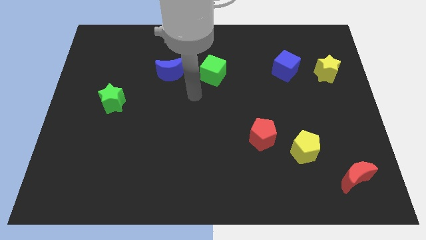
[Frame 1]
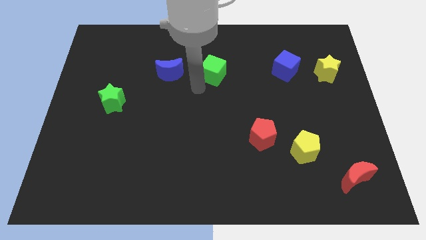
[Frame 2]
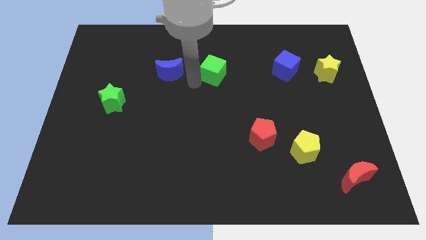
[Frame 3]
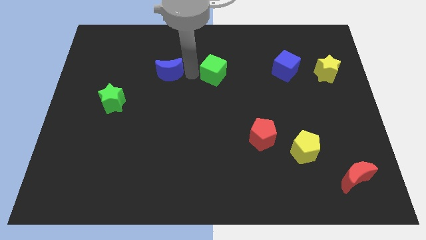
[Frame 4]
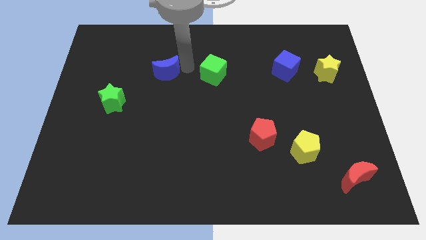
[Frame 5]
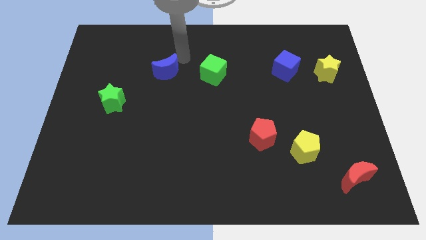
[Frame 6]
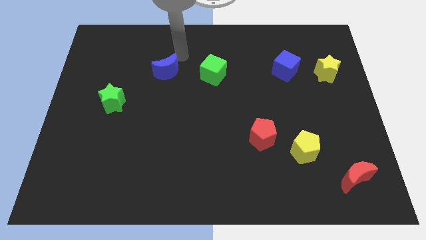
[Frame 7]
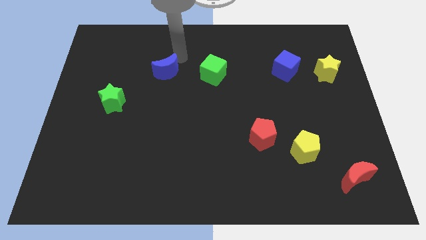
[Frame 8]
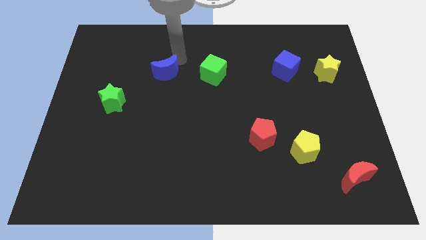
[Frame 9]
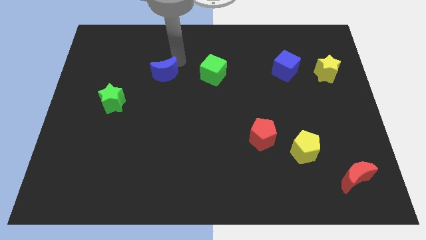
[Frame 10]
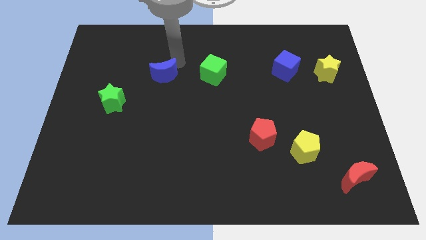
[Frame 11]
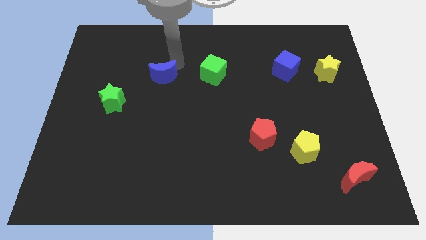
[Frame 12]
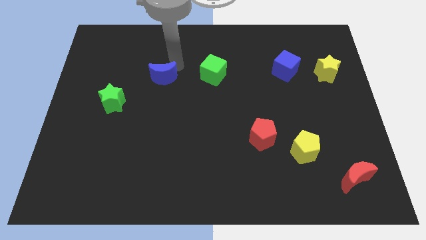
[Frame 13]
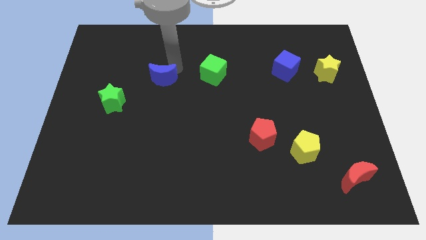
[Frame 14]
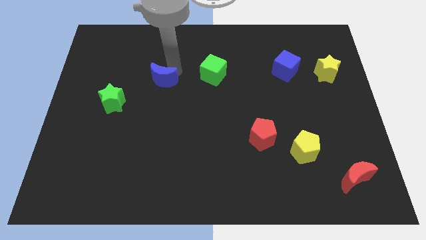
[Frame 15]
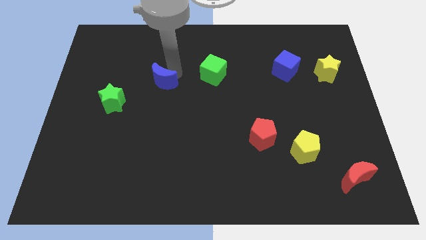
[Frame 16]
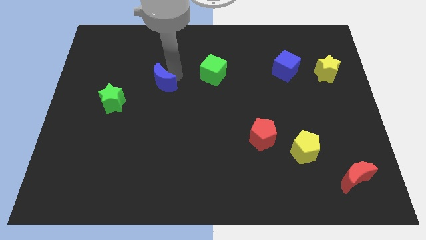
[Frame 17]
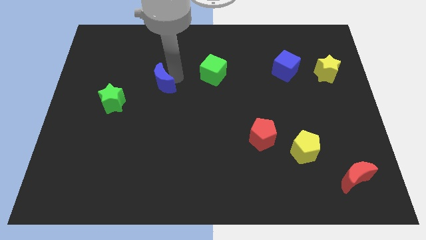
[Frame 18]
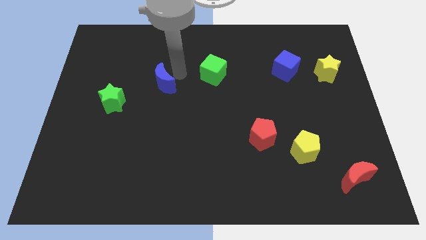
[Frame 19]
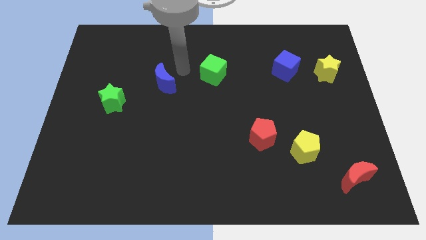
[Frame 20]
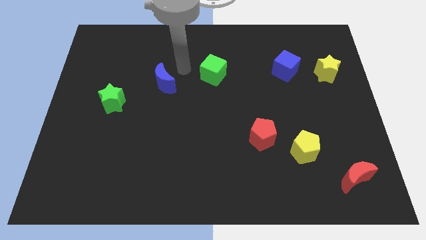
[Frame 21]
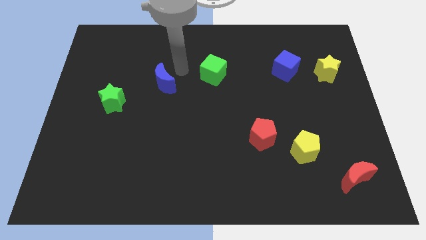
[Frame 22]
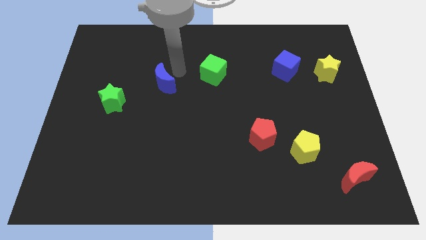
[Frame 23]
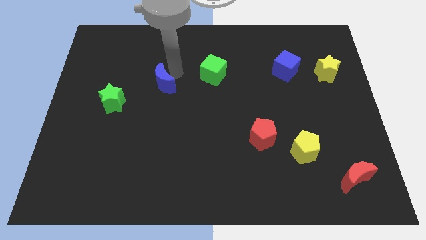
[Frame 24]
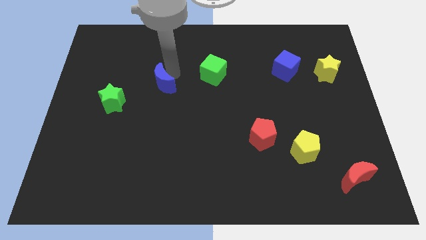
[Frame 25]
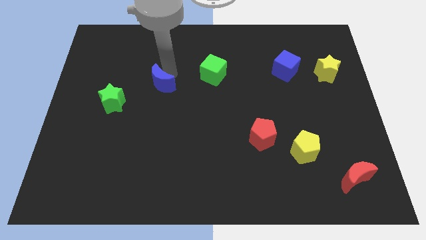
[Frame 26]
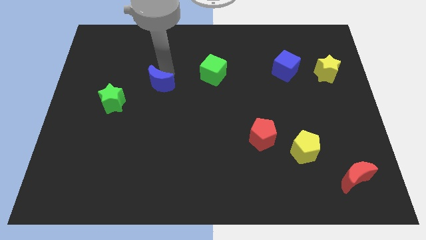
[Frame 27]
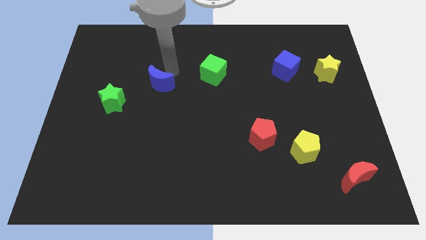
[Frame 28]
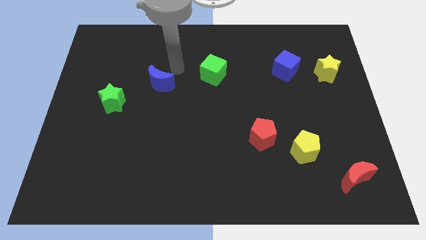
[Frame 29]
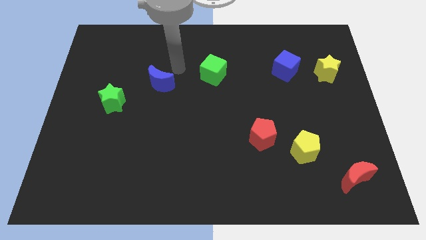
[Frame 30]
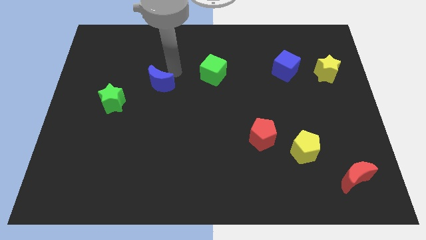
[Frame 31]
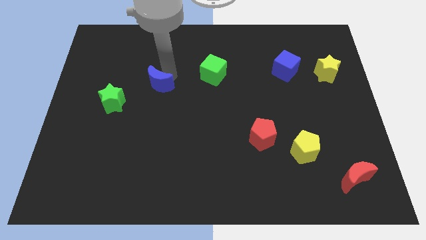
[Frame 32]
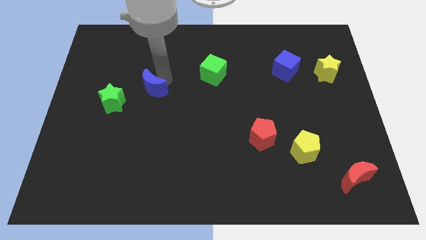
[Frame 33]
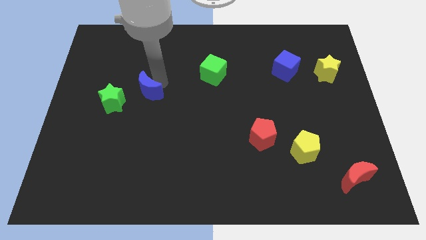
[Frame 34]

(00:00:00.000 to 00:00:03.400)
slightly move the blue moon down and to the left

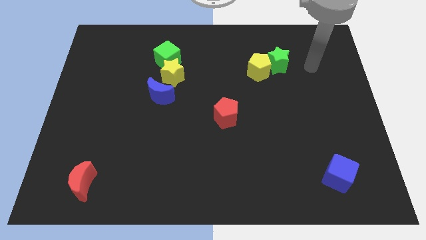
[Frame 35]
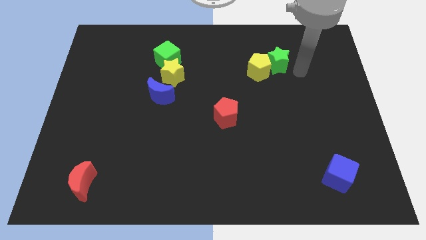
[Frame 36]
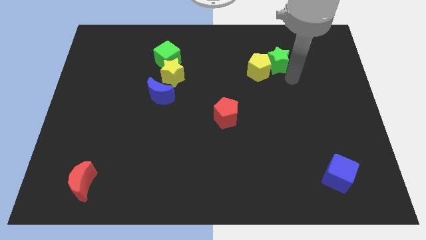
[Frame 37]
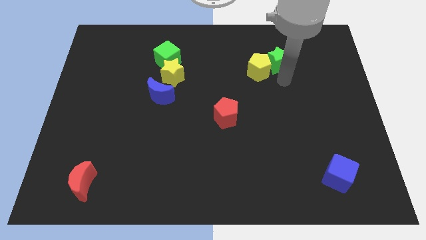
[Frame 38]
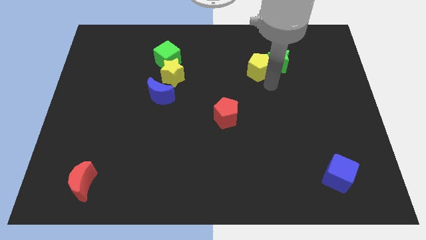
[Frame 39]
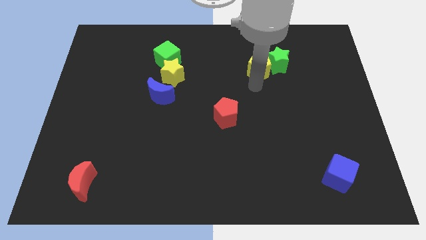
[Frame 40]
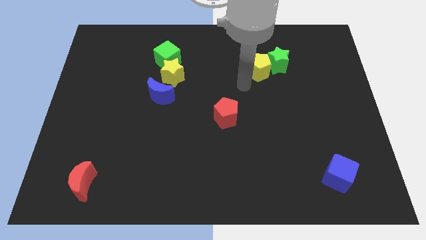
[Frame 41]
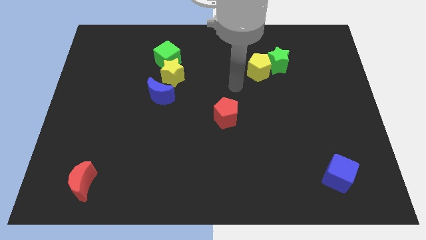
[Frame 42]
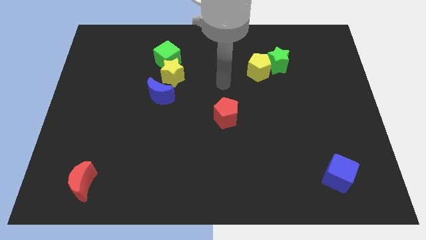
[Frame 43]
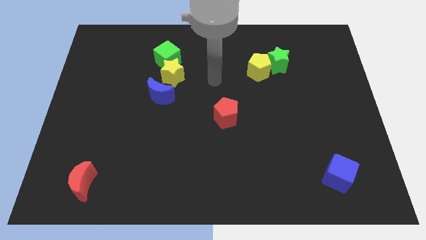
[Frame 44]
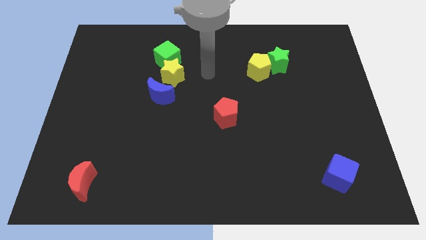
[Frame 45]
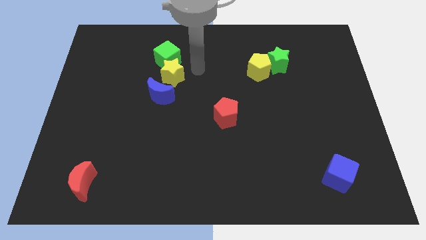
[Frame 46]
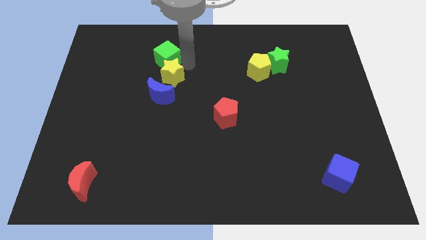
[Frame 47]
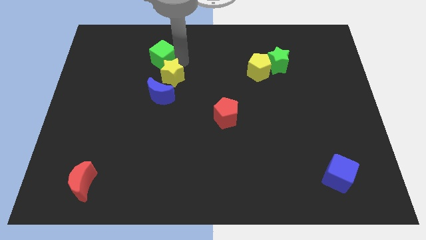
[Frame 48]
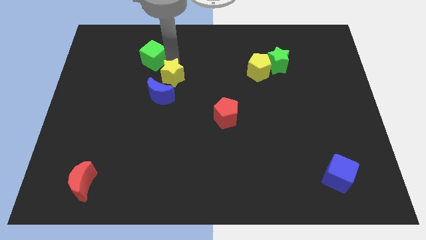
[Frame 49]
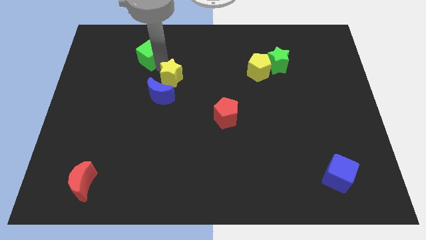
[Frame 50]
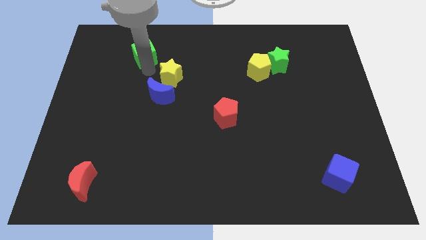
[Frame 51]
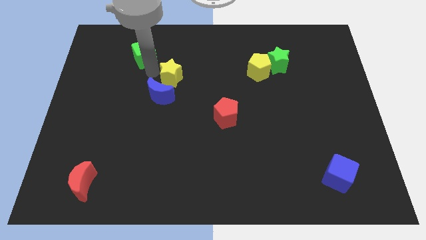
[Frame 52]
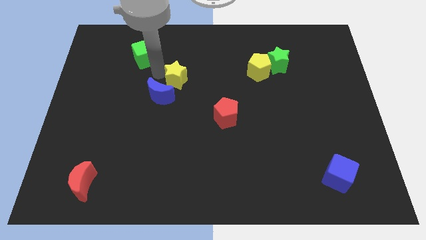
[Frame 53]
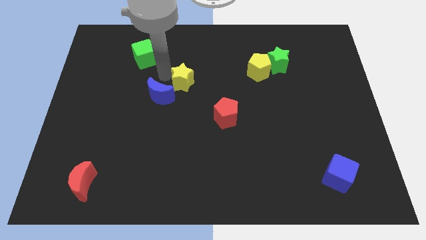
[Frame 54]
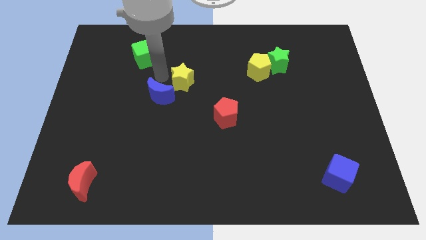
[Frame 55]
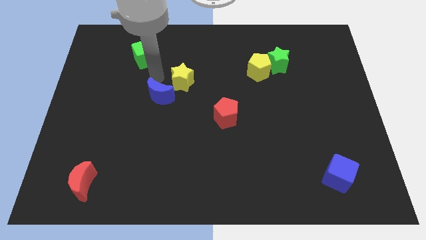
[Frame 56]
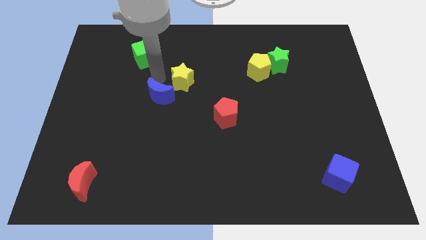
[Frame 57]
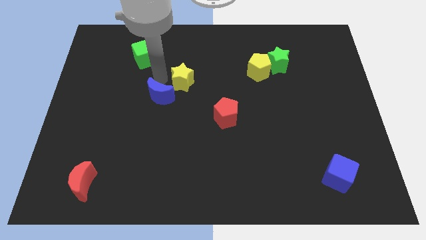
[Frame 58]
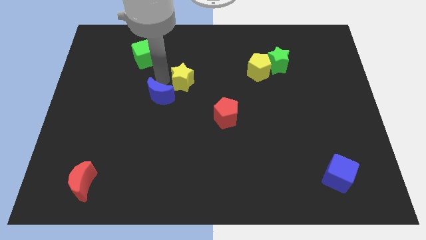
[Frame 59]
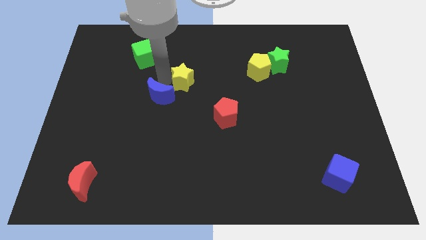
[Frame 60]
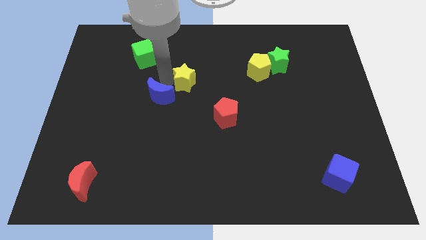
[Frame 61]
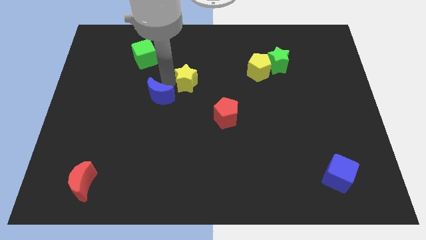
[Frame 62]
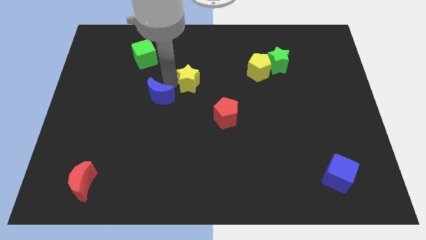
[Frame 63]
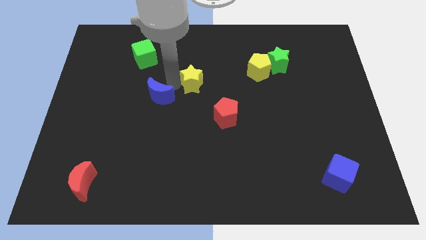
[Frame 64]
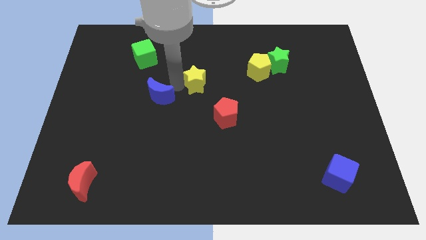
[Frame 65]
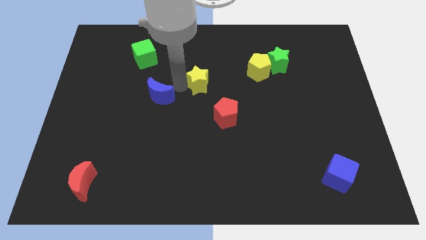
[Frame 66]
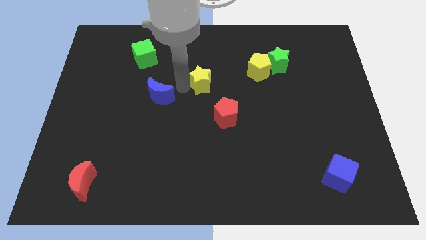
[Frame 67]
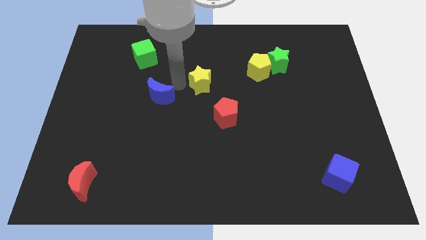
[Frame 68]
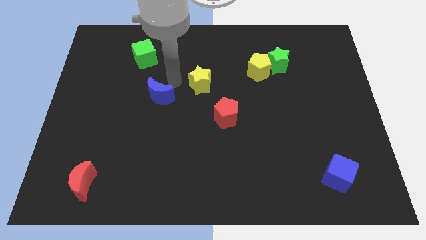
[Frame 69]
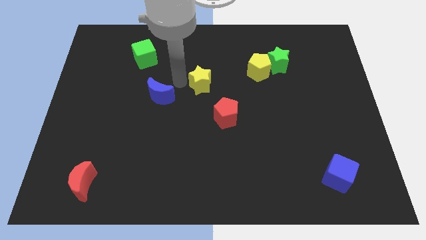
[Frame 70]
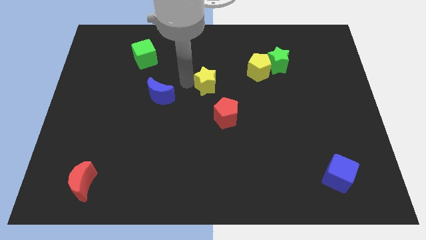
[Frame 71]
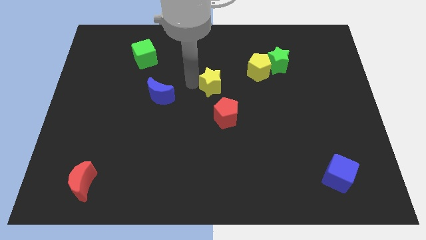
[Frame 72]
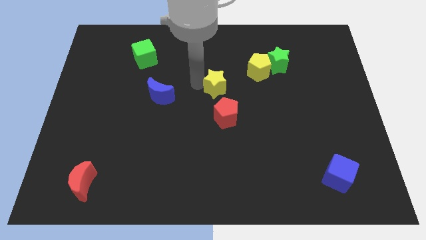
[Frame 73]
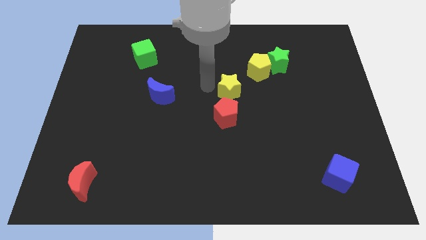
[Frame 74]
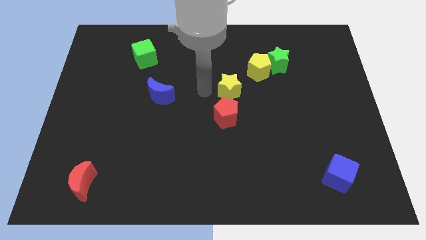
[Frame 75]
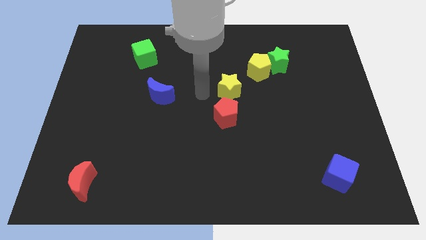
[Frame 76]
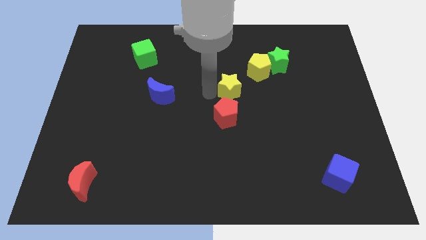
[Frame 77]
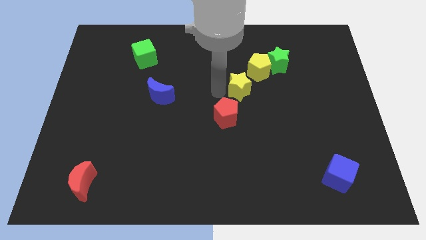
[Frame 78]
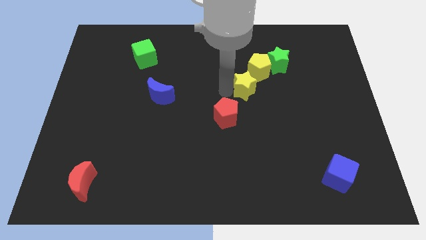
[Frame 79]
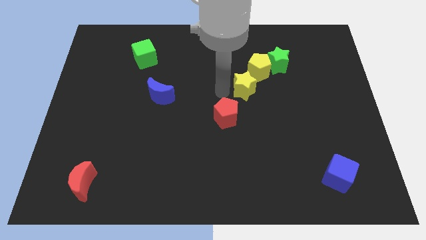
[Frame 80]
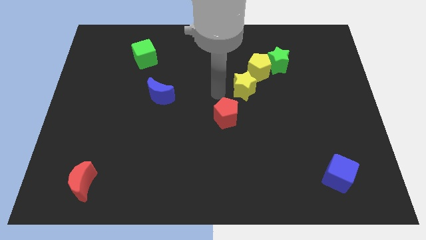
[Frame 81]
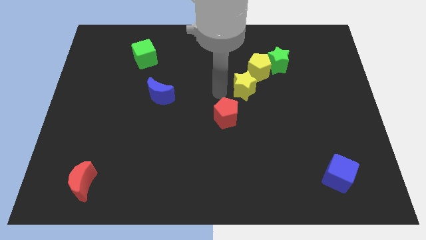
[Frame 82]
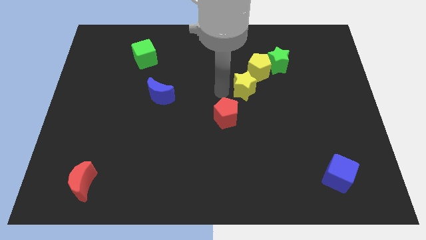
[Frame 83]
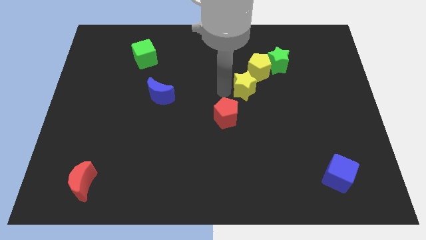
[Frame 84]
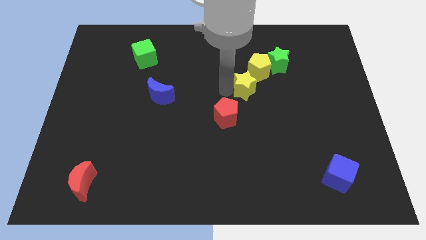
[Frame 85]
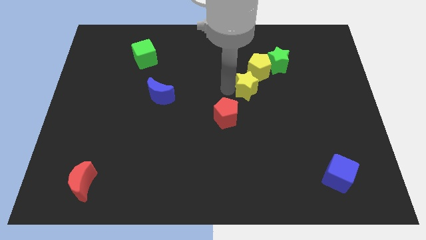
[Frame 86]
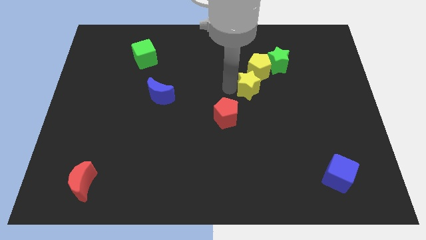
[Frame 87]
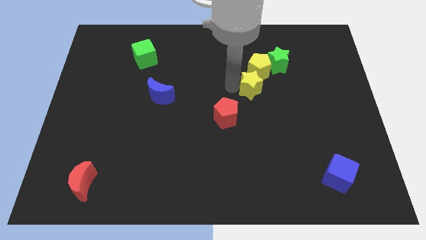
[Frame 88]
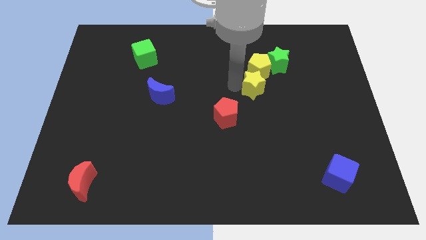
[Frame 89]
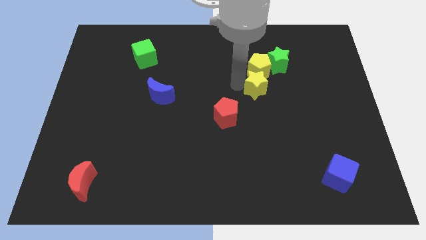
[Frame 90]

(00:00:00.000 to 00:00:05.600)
move the yellow star to the right
